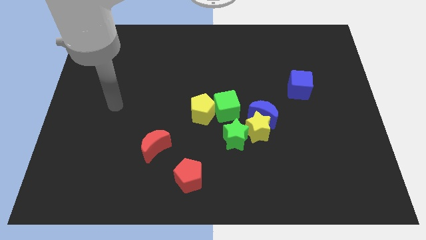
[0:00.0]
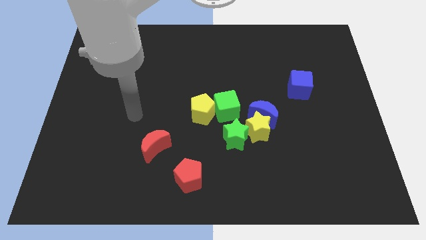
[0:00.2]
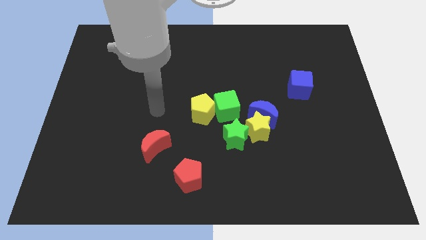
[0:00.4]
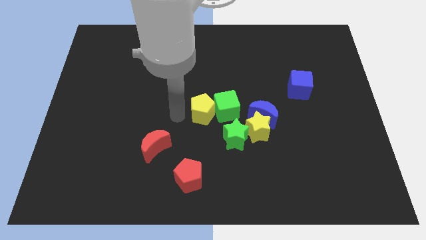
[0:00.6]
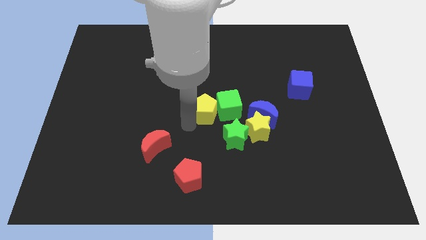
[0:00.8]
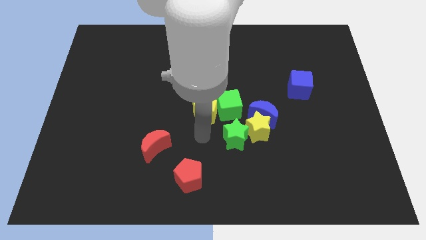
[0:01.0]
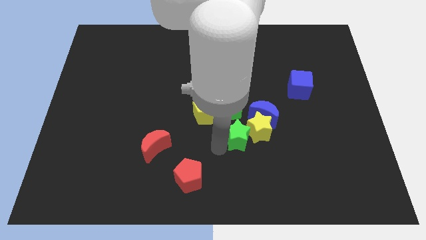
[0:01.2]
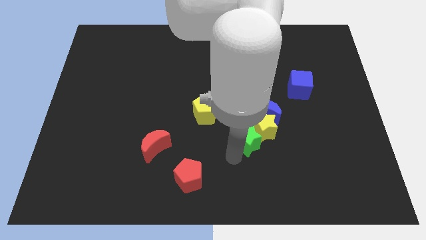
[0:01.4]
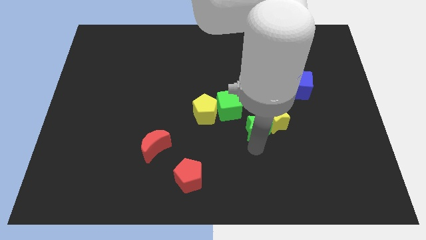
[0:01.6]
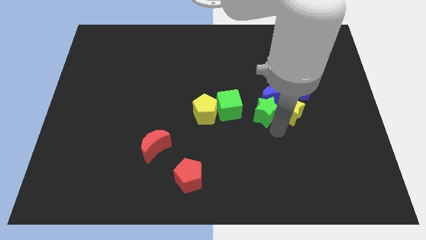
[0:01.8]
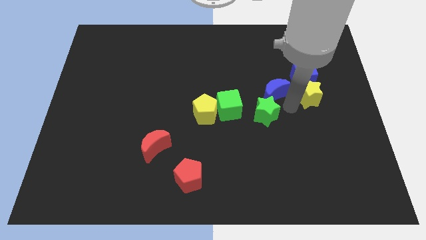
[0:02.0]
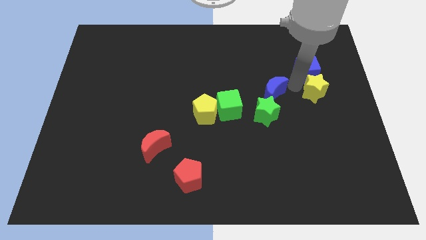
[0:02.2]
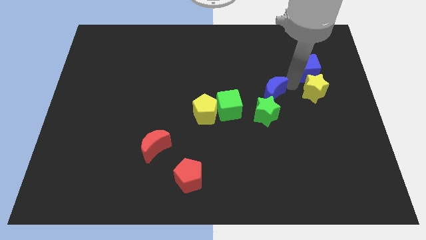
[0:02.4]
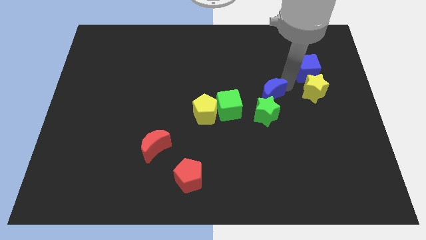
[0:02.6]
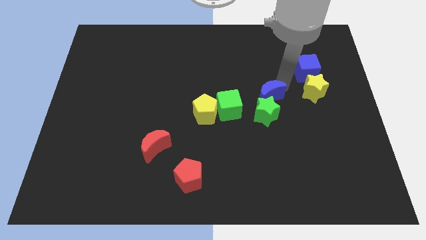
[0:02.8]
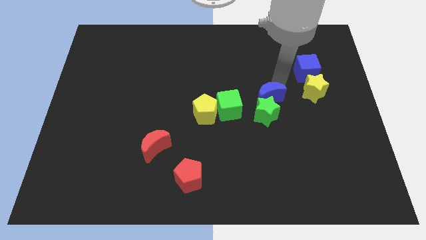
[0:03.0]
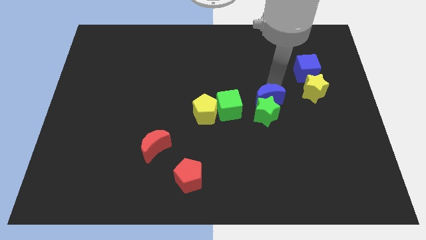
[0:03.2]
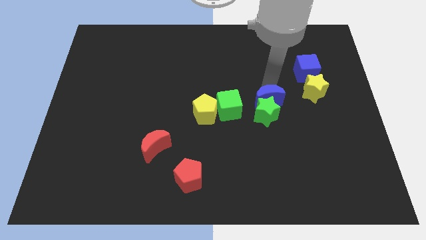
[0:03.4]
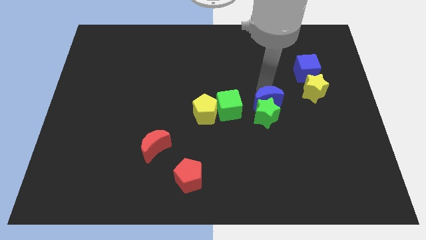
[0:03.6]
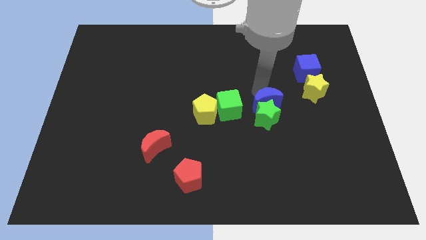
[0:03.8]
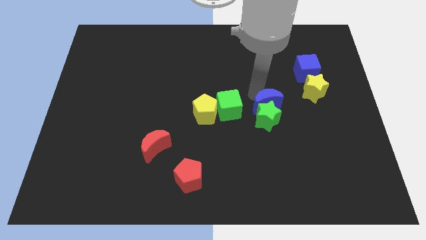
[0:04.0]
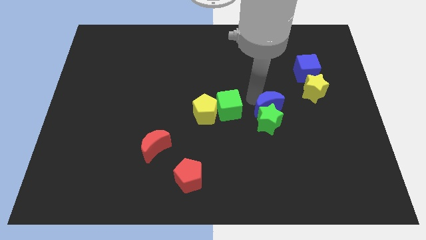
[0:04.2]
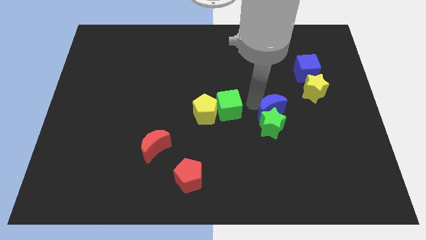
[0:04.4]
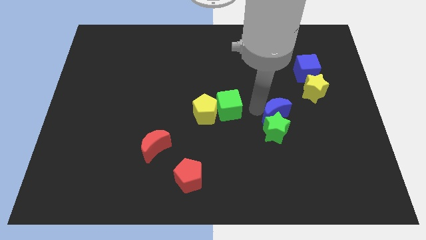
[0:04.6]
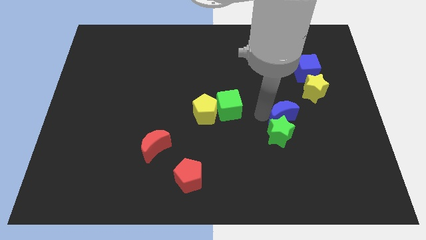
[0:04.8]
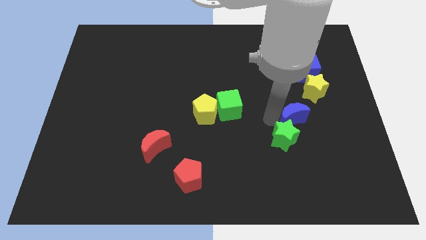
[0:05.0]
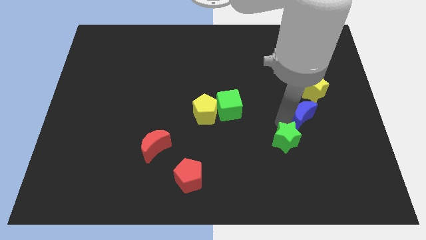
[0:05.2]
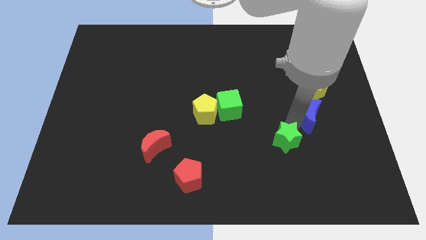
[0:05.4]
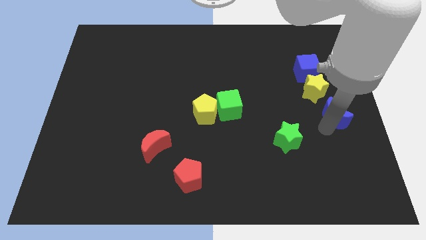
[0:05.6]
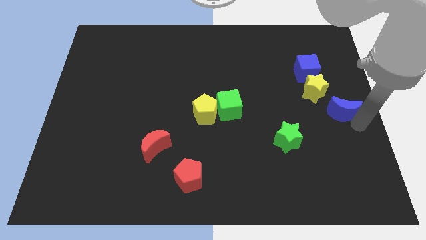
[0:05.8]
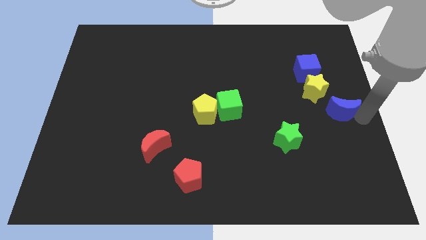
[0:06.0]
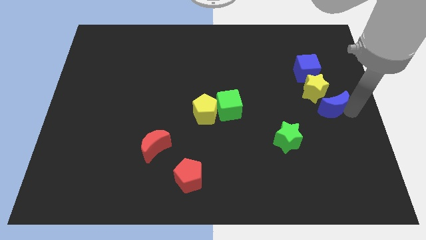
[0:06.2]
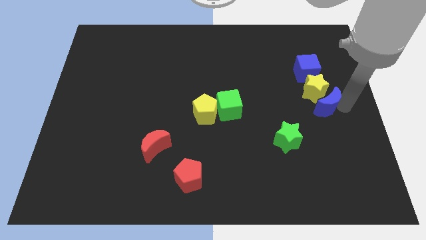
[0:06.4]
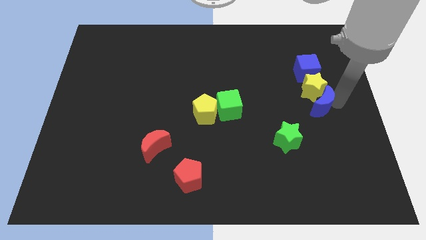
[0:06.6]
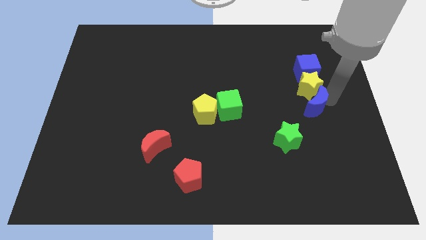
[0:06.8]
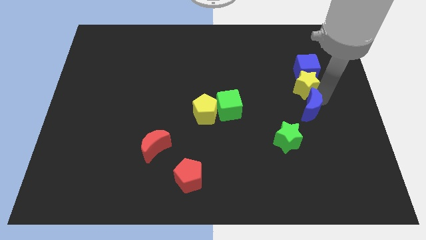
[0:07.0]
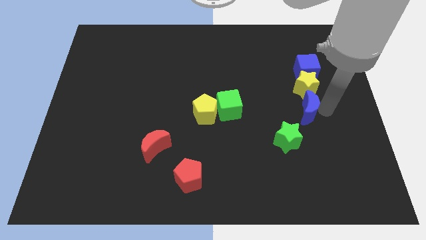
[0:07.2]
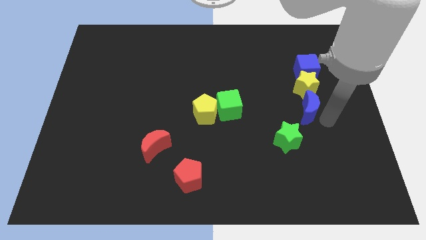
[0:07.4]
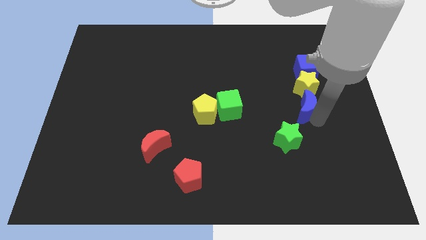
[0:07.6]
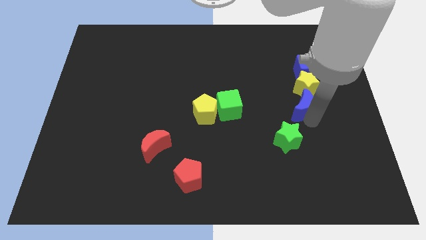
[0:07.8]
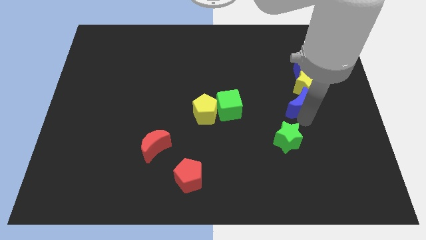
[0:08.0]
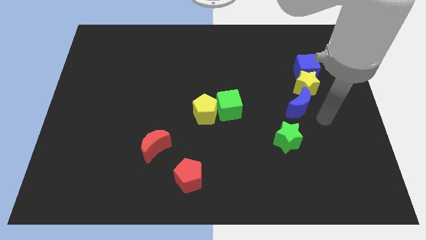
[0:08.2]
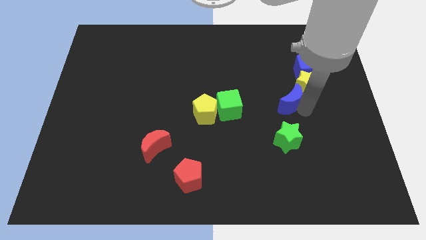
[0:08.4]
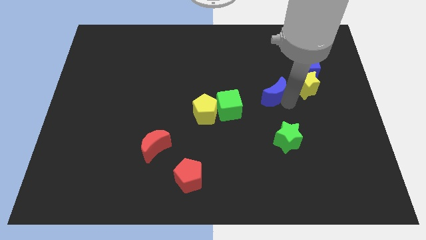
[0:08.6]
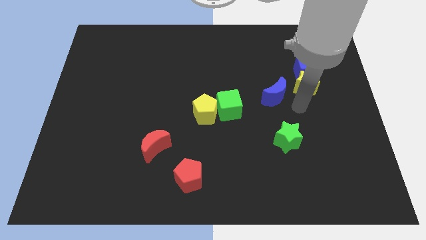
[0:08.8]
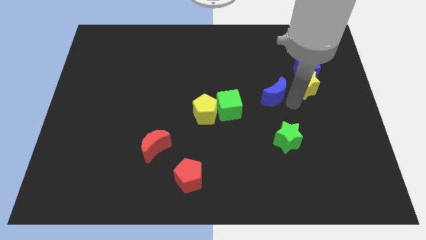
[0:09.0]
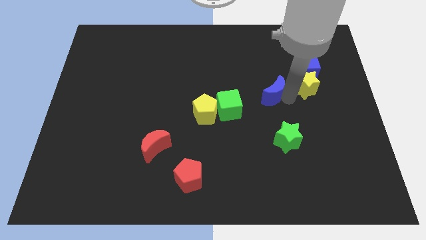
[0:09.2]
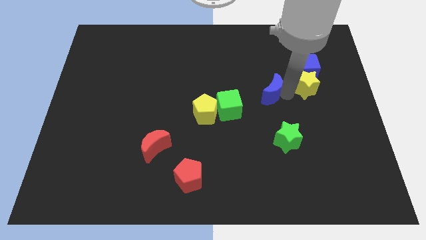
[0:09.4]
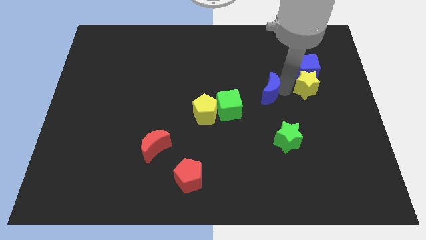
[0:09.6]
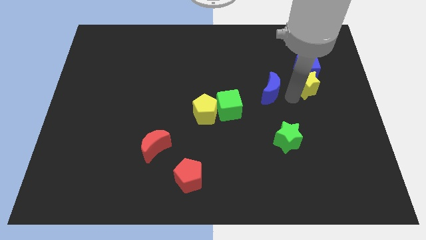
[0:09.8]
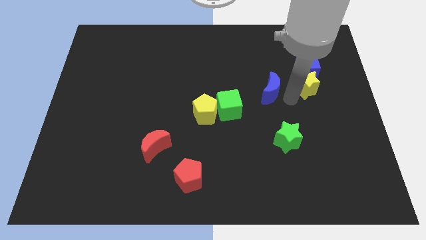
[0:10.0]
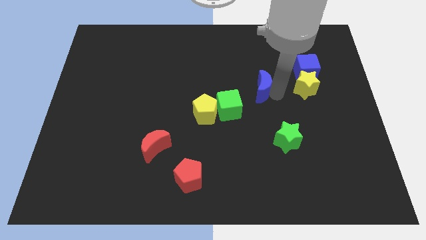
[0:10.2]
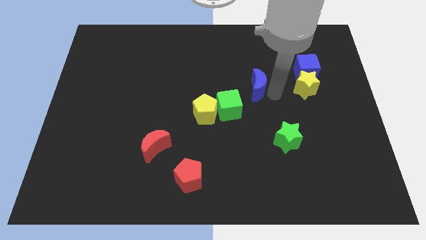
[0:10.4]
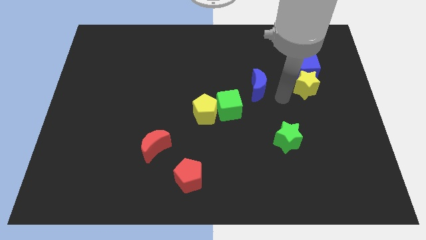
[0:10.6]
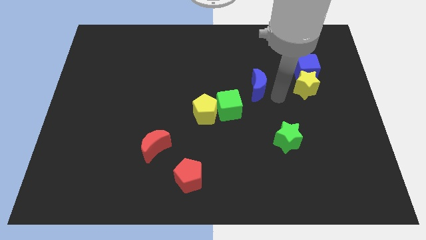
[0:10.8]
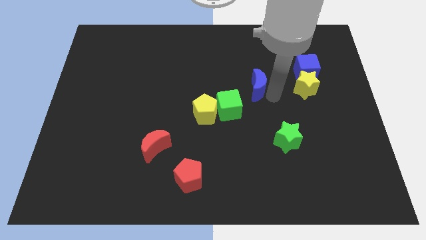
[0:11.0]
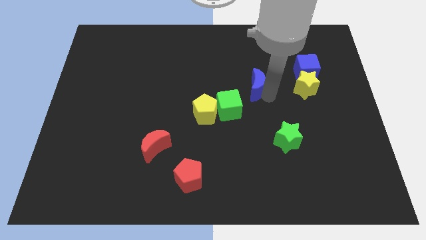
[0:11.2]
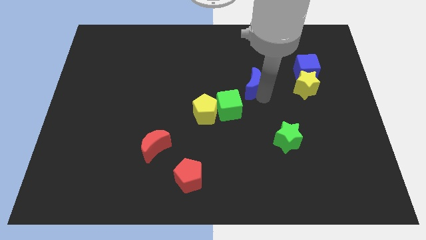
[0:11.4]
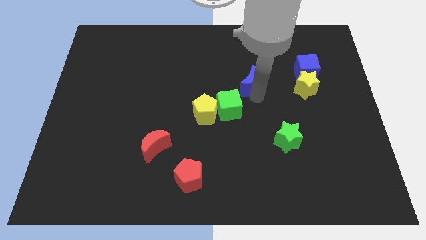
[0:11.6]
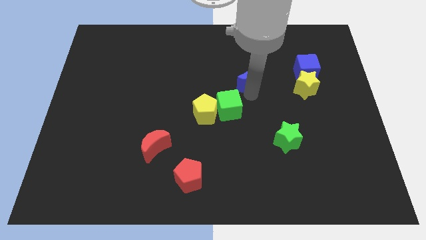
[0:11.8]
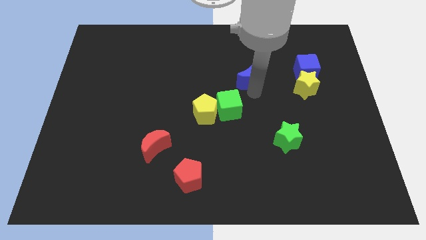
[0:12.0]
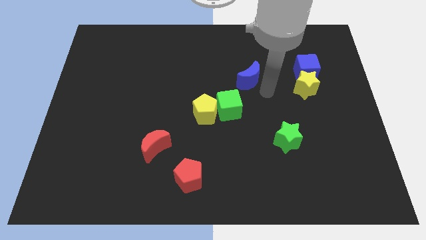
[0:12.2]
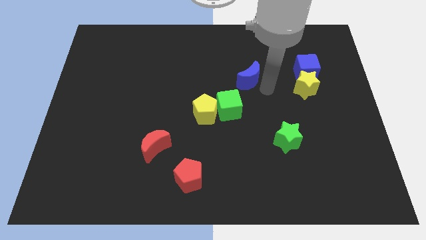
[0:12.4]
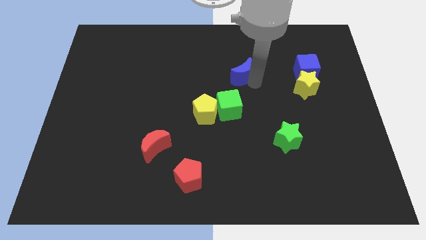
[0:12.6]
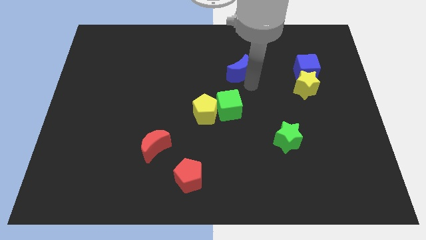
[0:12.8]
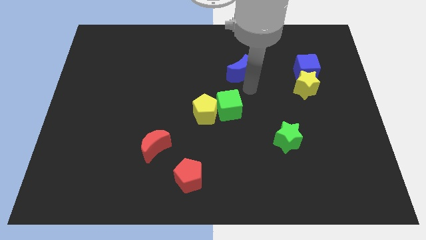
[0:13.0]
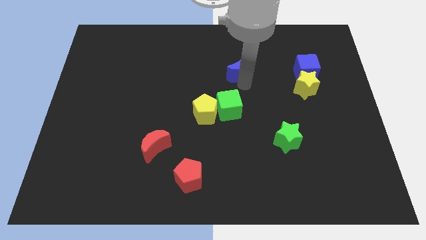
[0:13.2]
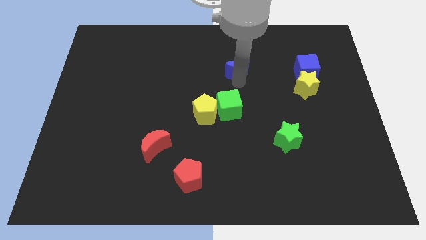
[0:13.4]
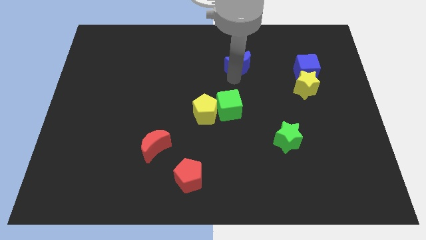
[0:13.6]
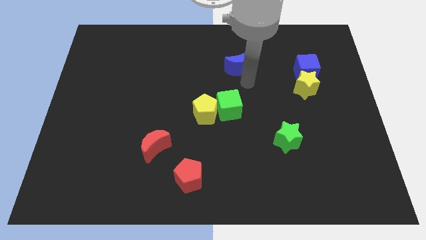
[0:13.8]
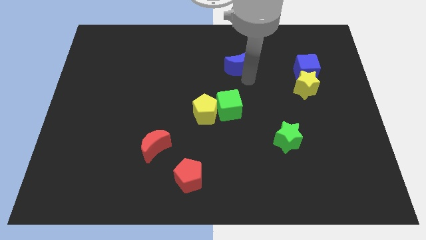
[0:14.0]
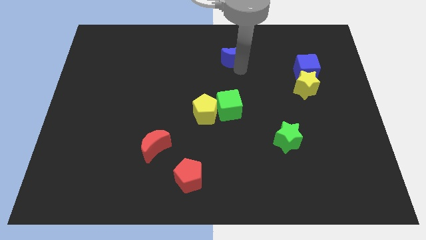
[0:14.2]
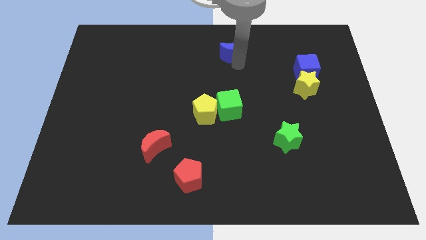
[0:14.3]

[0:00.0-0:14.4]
push the blue moon to the top side
